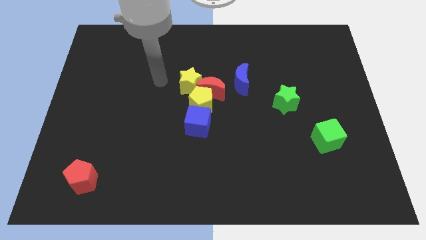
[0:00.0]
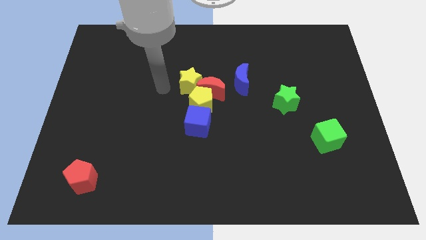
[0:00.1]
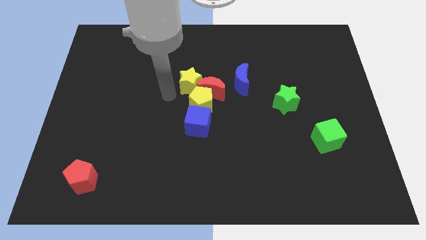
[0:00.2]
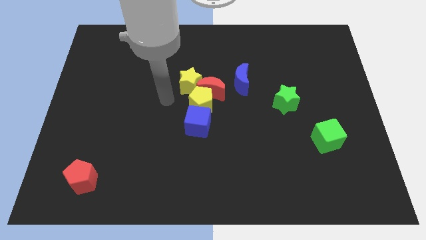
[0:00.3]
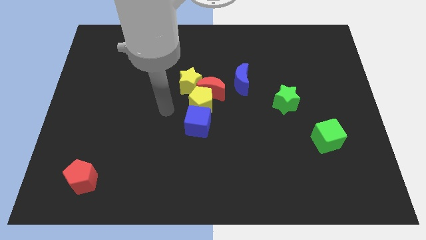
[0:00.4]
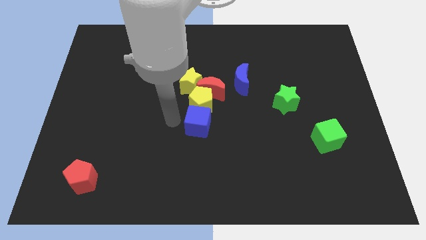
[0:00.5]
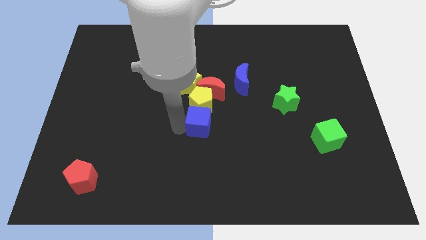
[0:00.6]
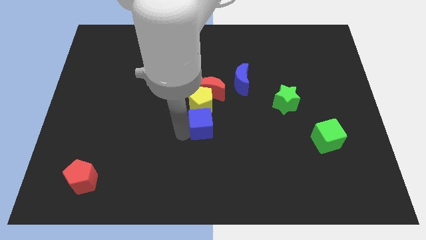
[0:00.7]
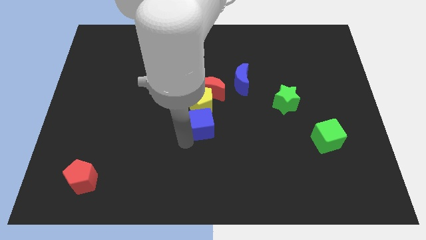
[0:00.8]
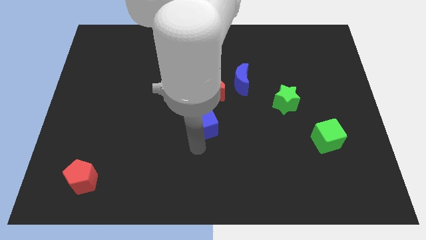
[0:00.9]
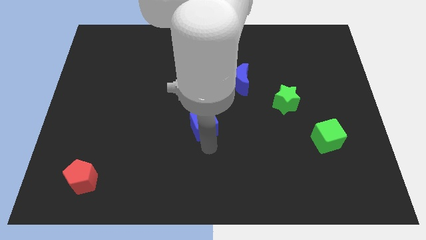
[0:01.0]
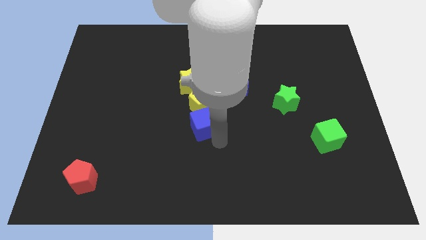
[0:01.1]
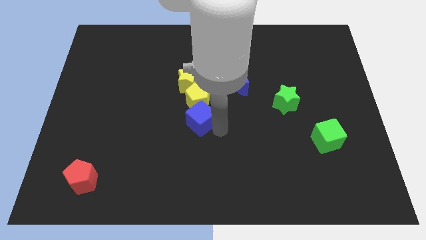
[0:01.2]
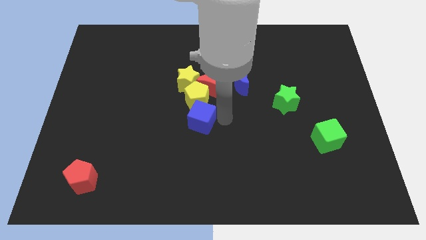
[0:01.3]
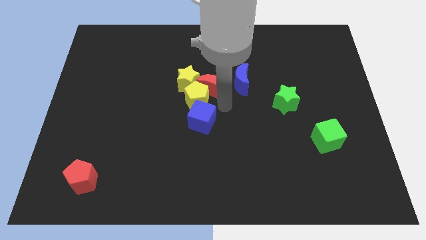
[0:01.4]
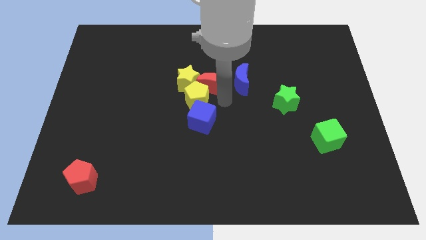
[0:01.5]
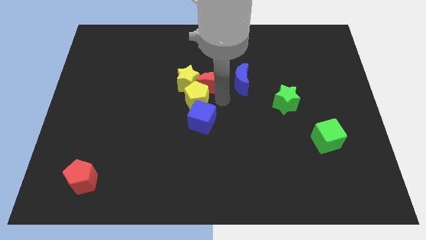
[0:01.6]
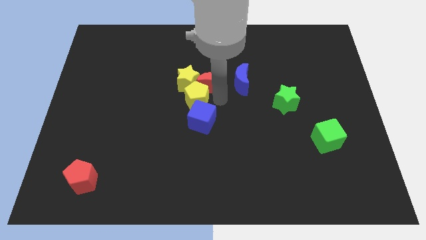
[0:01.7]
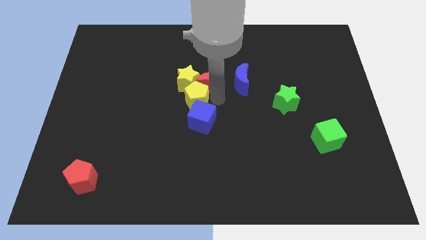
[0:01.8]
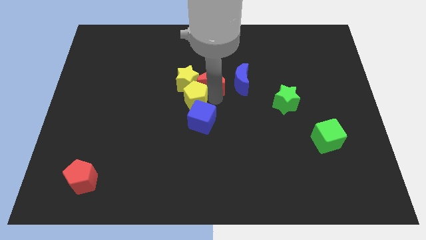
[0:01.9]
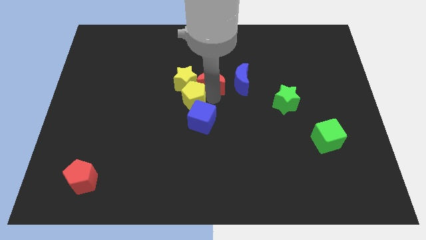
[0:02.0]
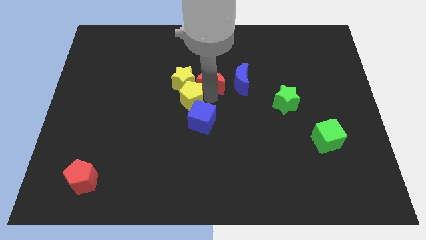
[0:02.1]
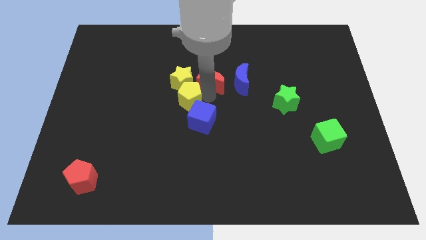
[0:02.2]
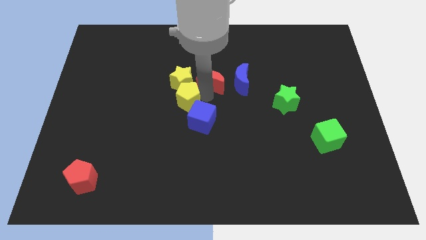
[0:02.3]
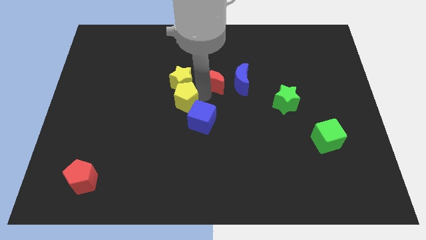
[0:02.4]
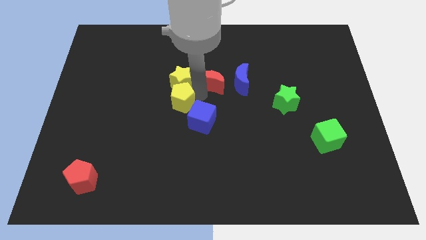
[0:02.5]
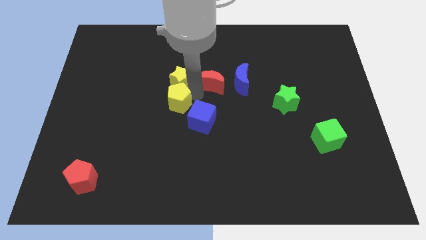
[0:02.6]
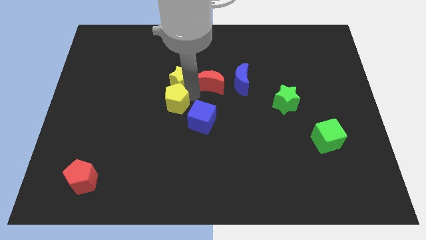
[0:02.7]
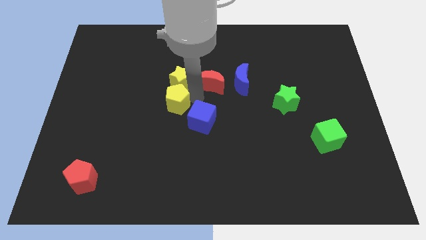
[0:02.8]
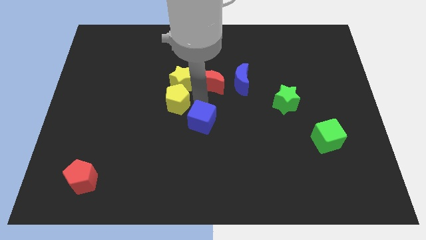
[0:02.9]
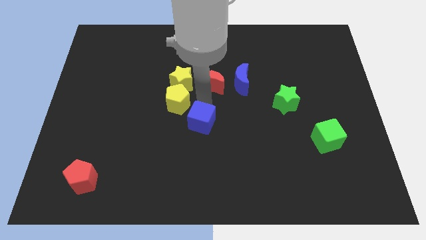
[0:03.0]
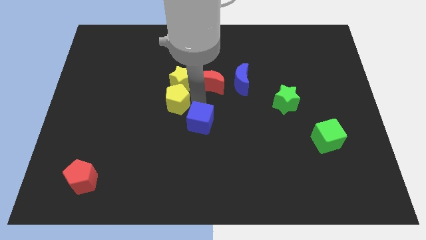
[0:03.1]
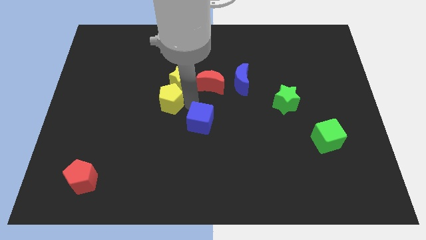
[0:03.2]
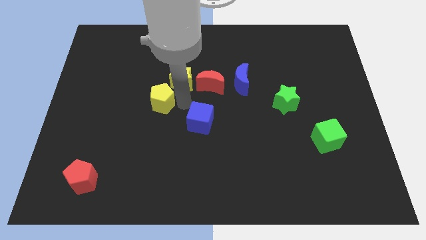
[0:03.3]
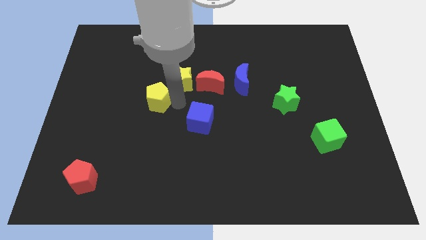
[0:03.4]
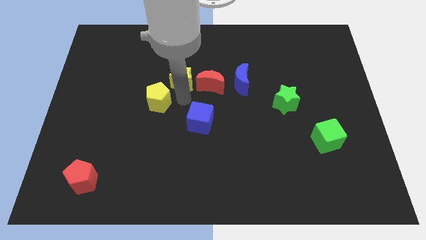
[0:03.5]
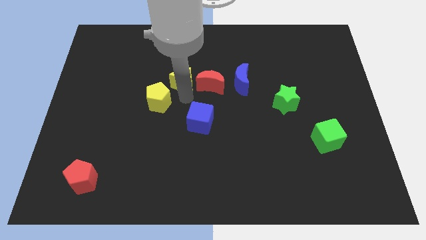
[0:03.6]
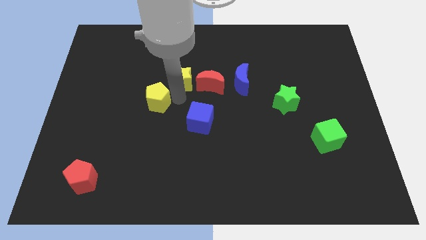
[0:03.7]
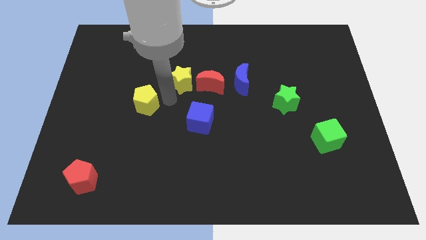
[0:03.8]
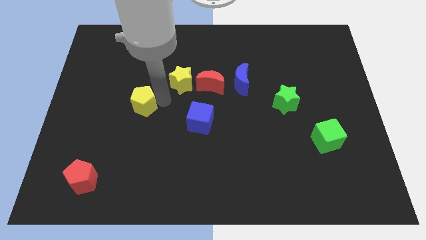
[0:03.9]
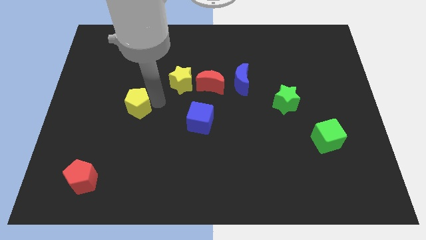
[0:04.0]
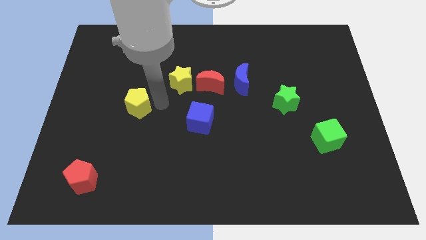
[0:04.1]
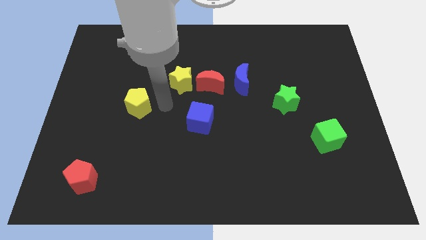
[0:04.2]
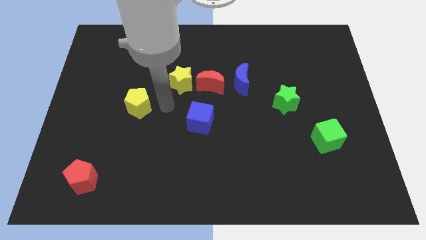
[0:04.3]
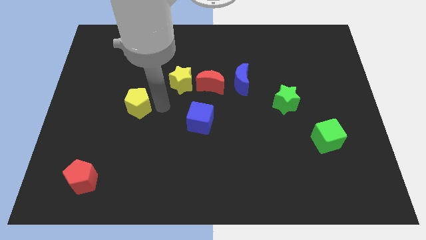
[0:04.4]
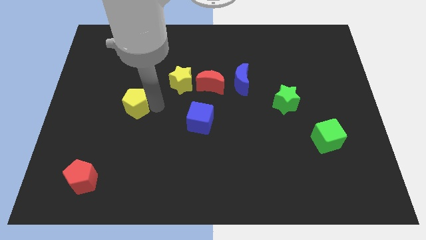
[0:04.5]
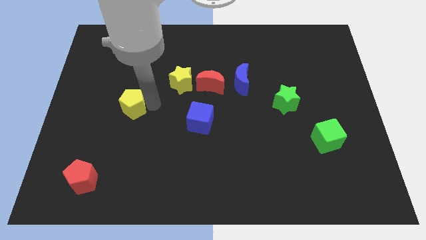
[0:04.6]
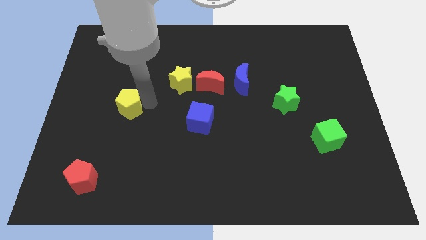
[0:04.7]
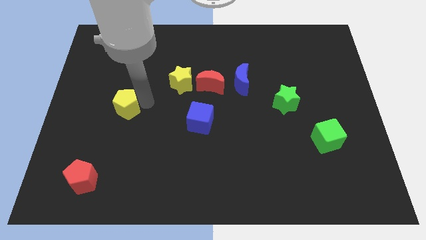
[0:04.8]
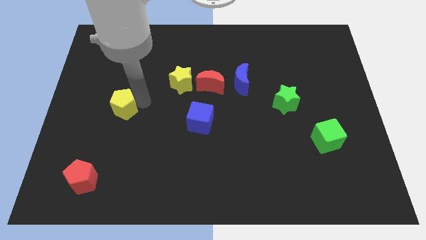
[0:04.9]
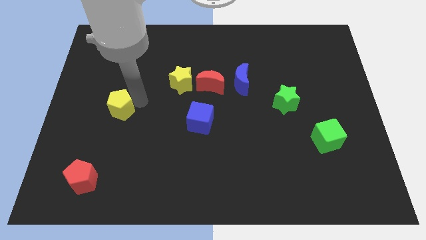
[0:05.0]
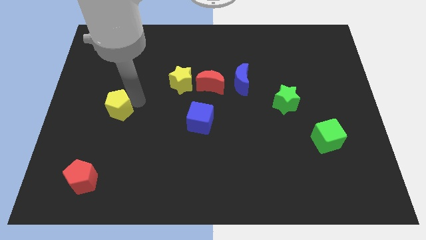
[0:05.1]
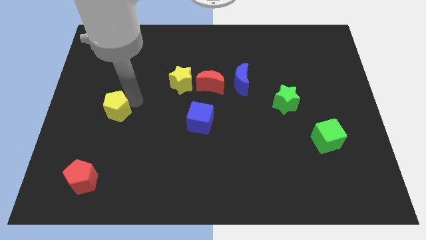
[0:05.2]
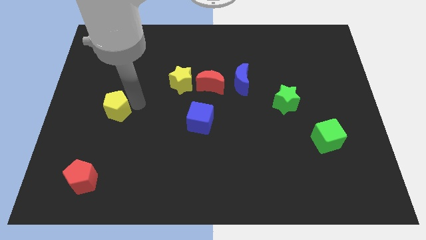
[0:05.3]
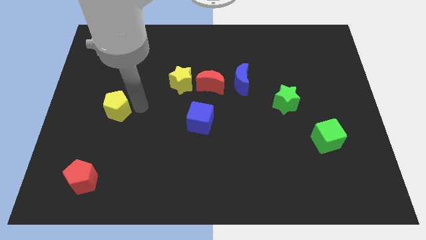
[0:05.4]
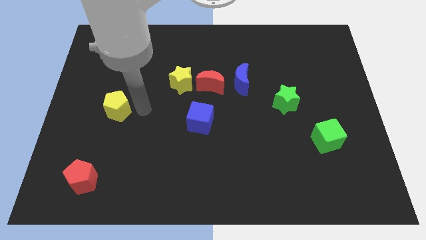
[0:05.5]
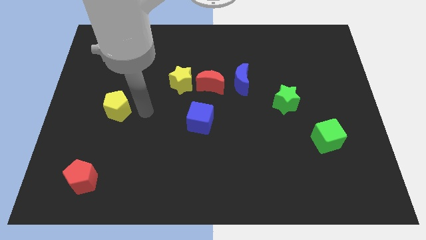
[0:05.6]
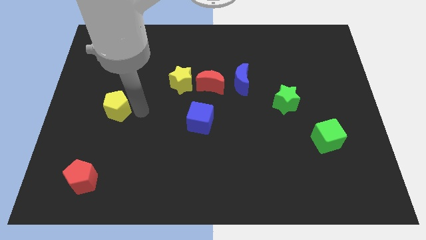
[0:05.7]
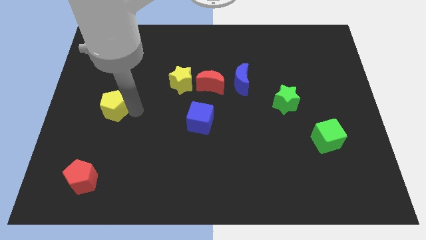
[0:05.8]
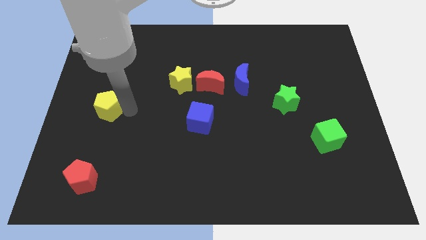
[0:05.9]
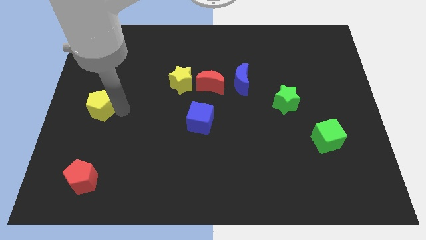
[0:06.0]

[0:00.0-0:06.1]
put the yellow pentagon to the left side of the board

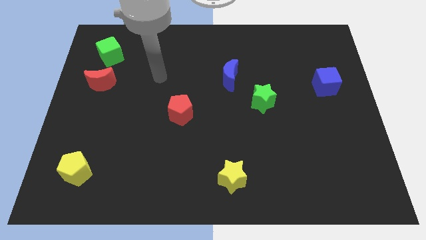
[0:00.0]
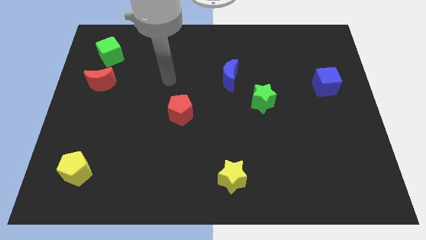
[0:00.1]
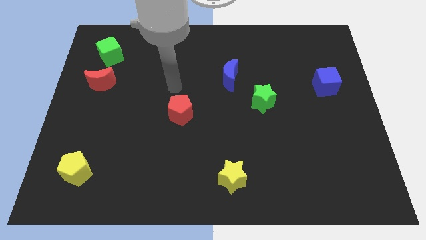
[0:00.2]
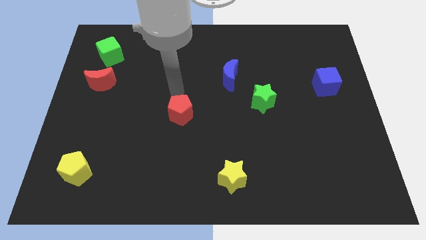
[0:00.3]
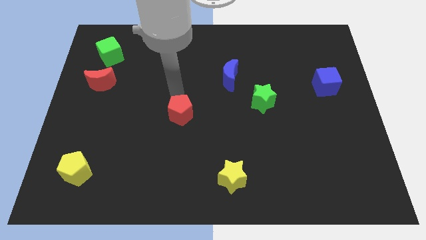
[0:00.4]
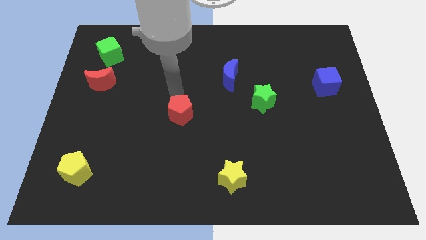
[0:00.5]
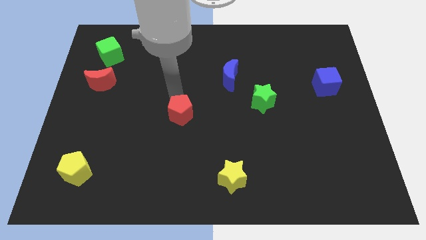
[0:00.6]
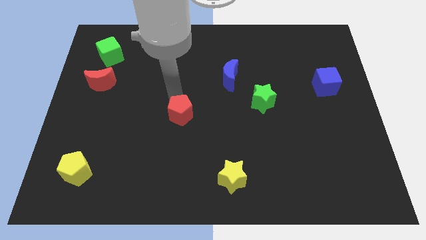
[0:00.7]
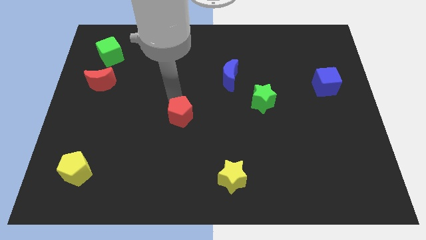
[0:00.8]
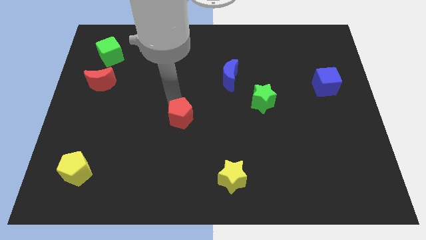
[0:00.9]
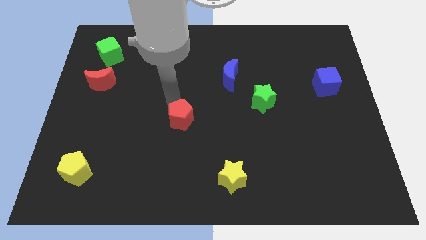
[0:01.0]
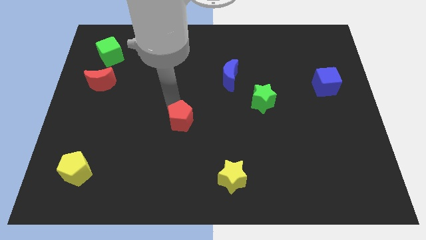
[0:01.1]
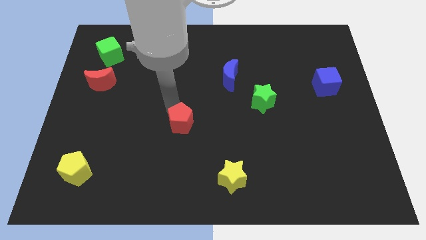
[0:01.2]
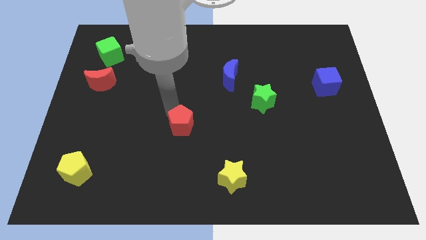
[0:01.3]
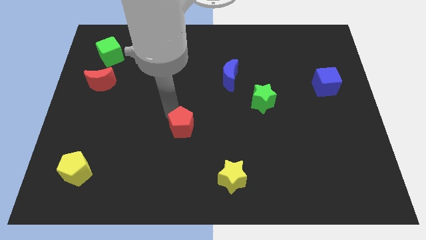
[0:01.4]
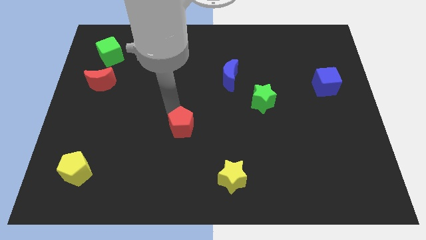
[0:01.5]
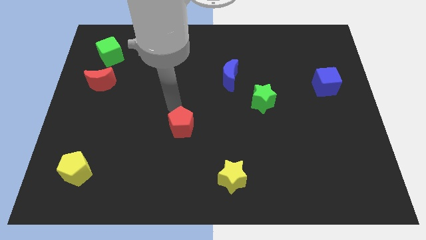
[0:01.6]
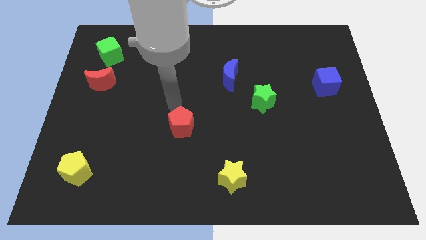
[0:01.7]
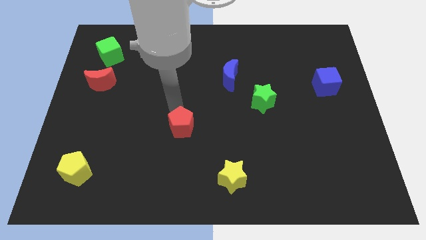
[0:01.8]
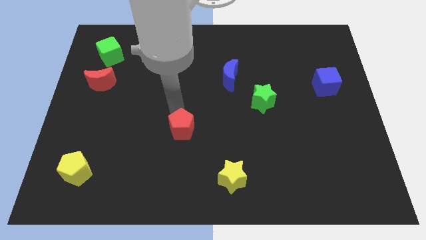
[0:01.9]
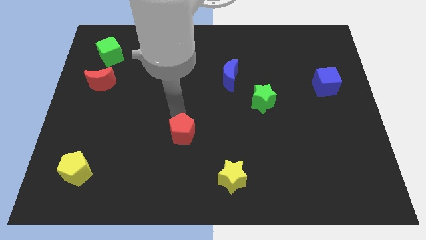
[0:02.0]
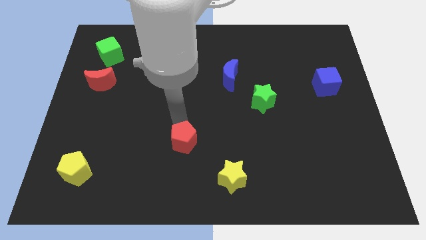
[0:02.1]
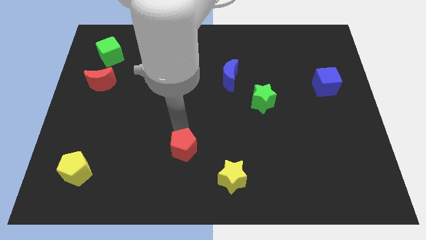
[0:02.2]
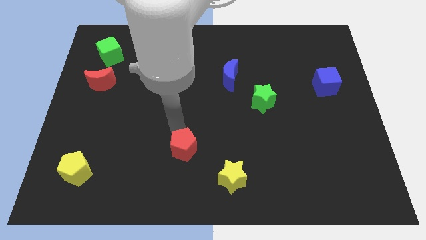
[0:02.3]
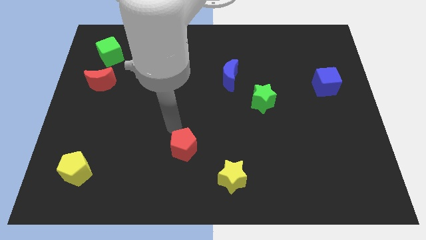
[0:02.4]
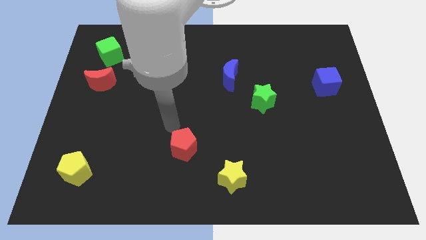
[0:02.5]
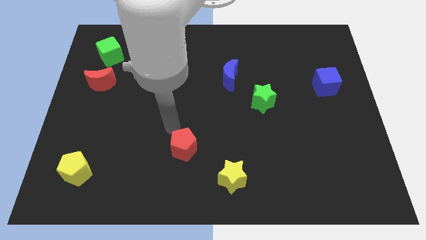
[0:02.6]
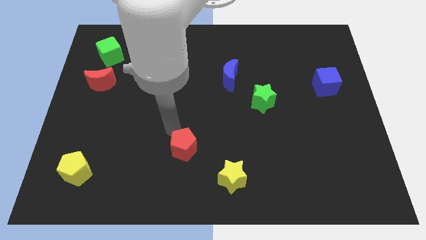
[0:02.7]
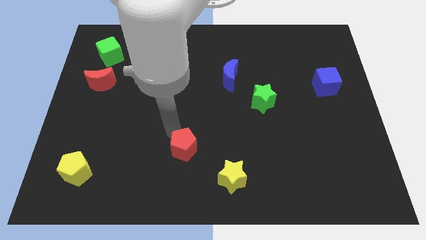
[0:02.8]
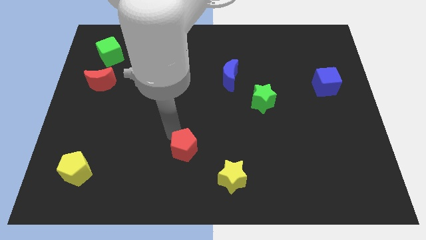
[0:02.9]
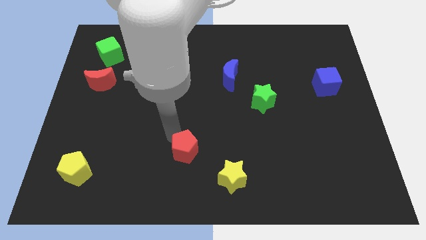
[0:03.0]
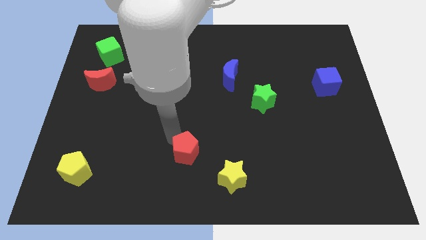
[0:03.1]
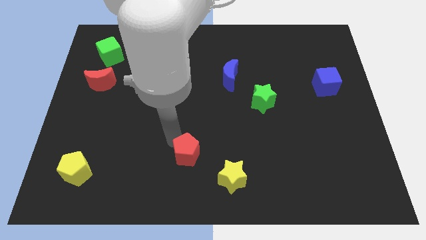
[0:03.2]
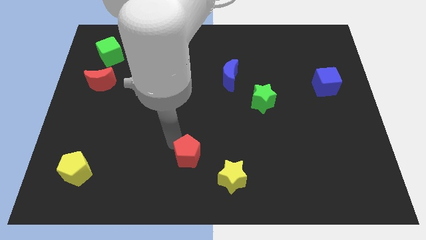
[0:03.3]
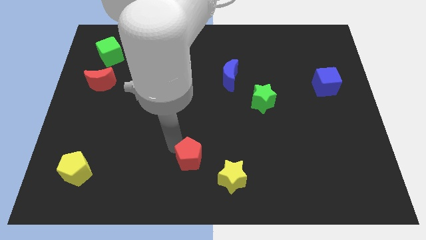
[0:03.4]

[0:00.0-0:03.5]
move the red pentagon to the bottom side
